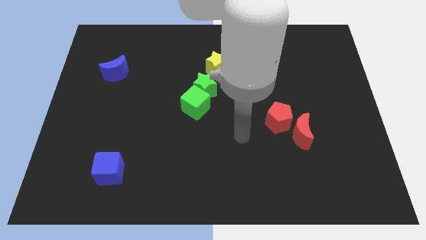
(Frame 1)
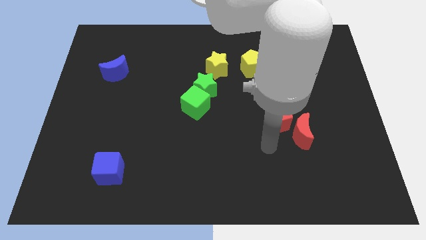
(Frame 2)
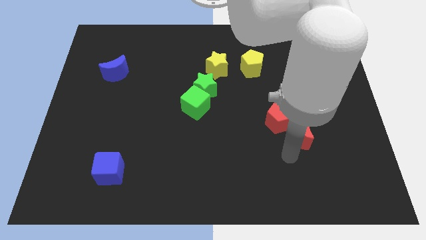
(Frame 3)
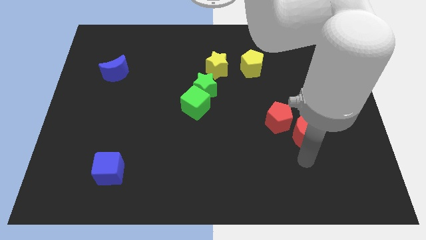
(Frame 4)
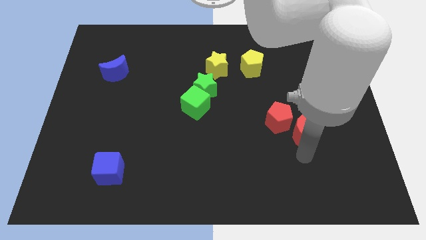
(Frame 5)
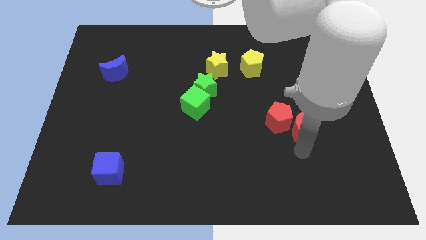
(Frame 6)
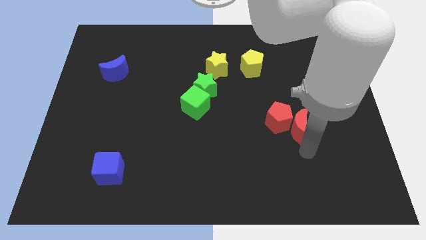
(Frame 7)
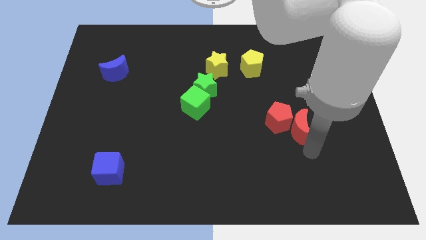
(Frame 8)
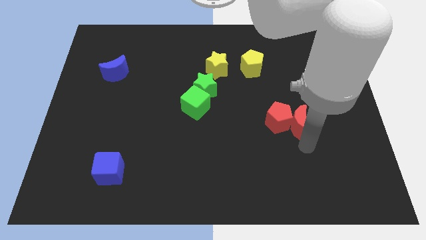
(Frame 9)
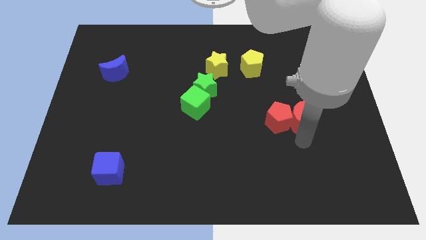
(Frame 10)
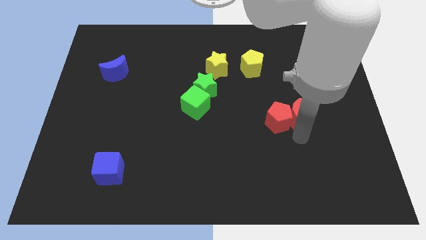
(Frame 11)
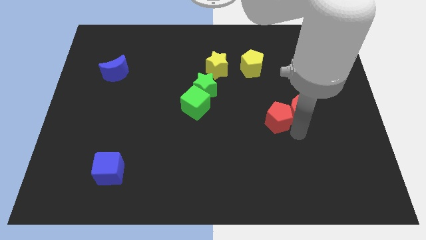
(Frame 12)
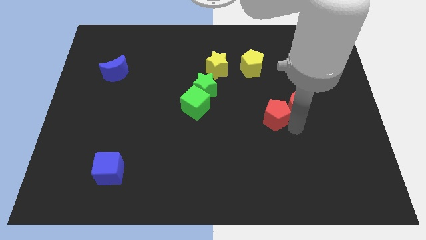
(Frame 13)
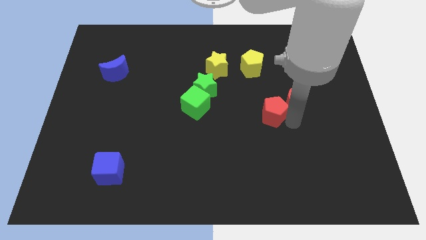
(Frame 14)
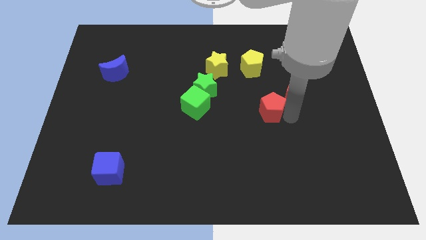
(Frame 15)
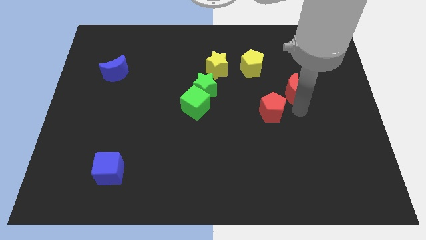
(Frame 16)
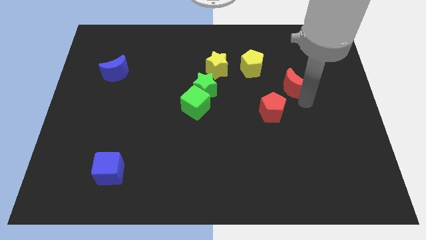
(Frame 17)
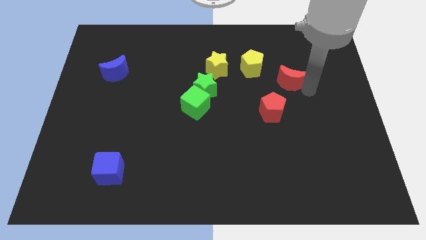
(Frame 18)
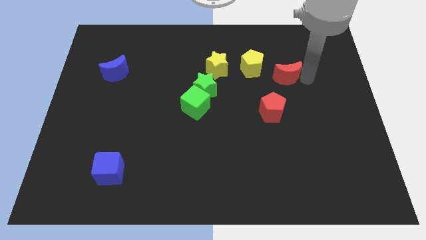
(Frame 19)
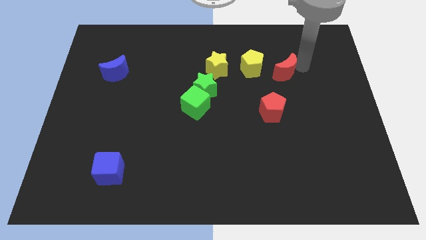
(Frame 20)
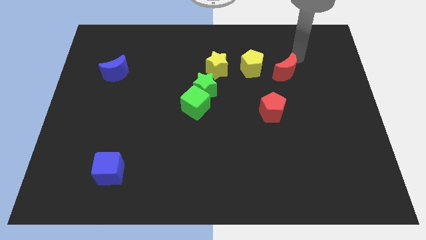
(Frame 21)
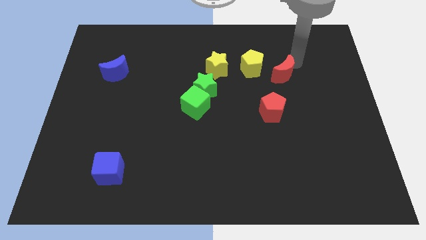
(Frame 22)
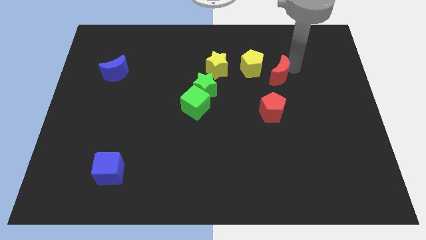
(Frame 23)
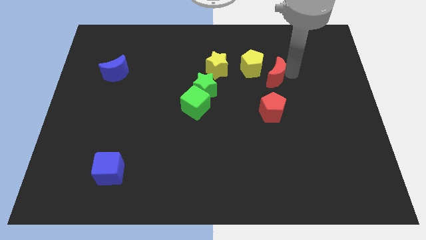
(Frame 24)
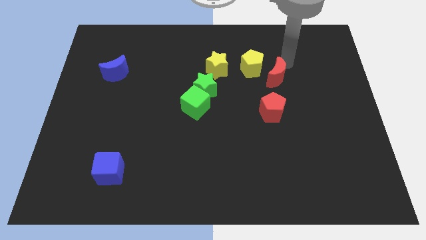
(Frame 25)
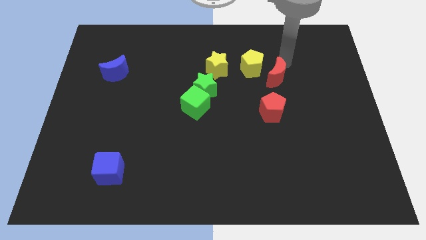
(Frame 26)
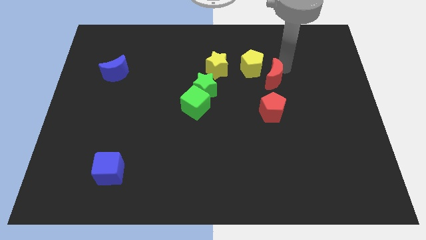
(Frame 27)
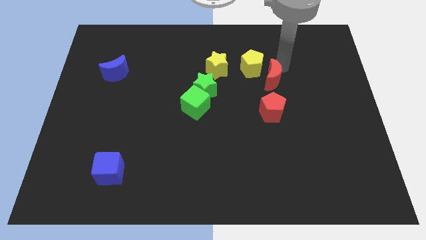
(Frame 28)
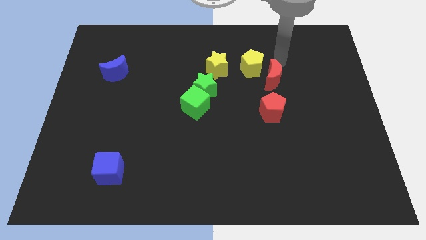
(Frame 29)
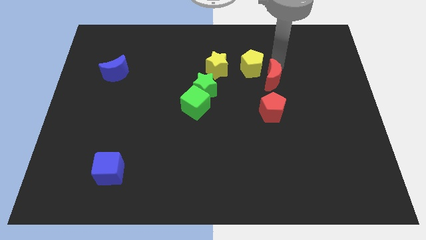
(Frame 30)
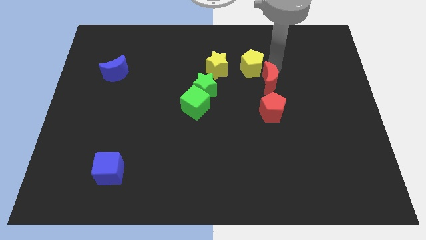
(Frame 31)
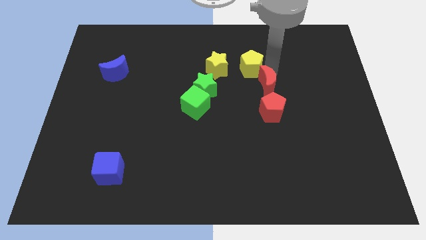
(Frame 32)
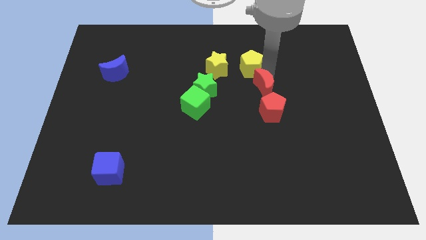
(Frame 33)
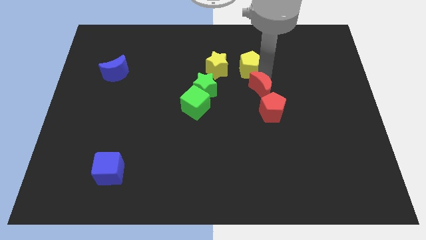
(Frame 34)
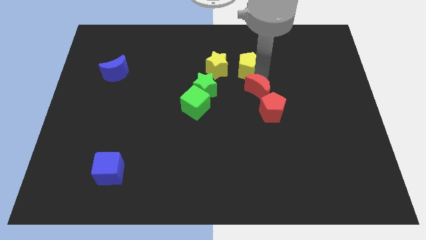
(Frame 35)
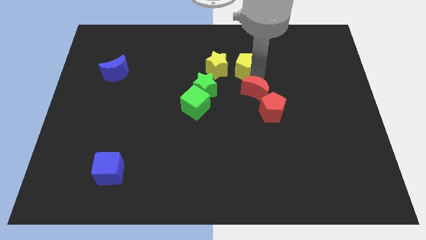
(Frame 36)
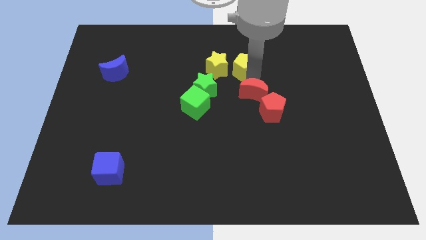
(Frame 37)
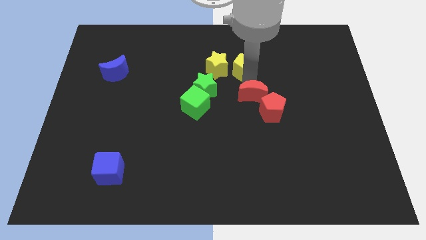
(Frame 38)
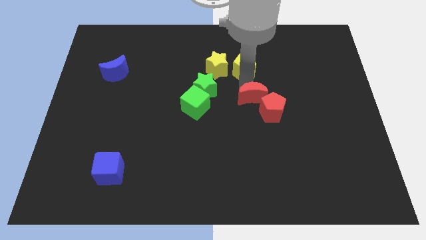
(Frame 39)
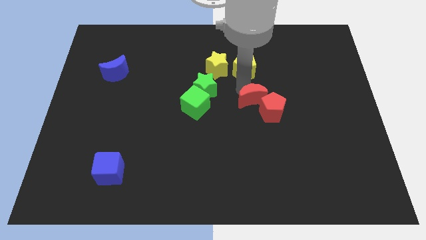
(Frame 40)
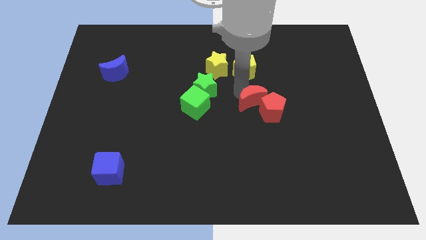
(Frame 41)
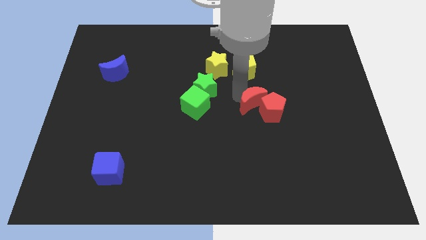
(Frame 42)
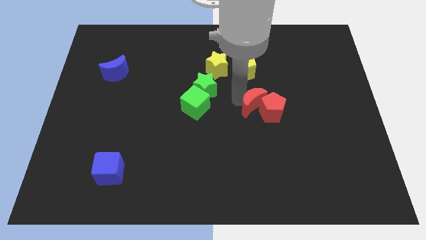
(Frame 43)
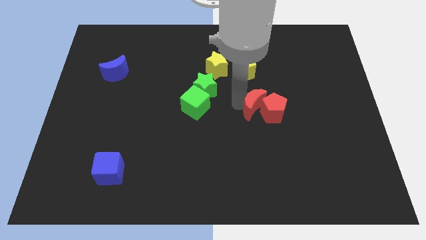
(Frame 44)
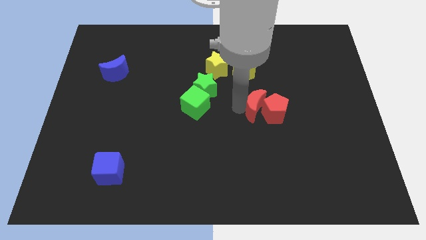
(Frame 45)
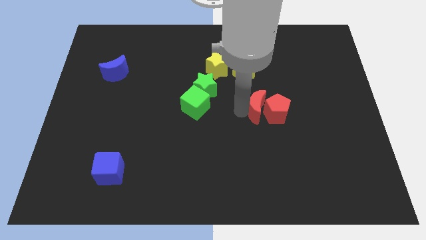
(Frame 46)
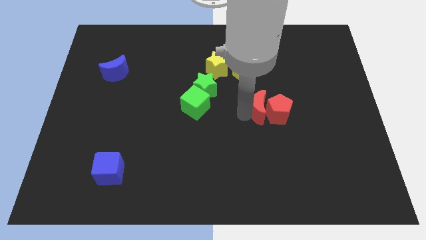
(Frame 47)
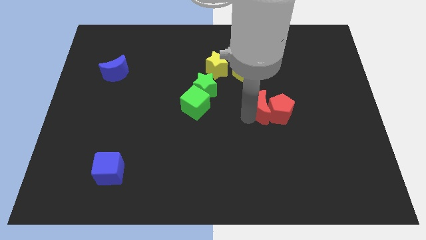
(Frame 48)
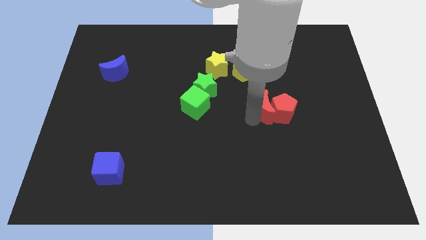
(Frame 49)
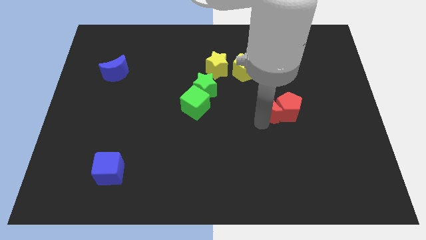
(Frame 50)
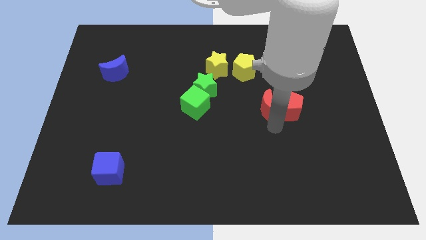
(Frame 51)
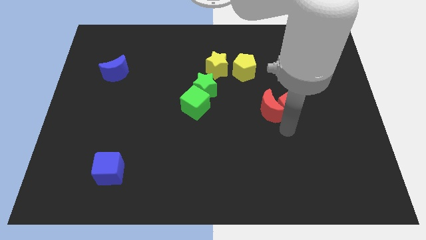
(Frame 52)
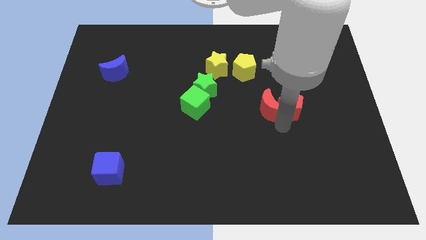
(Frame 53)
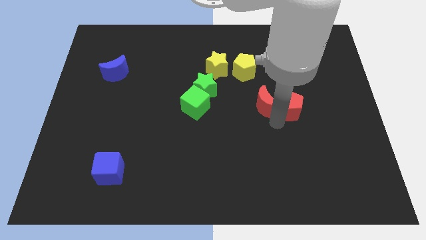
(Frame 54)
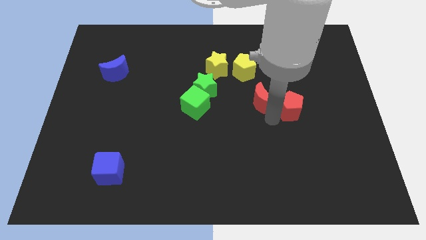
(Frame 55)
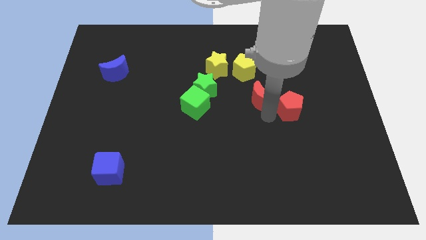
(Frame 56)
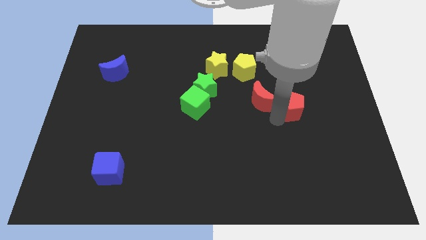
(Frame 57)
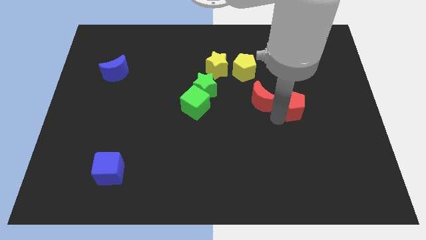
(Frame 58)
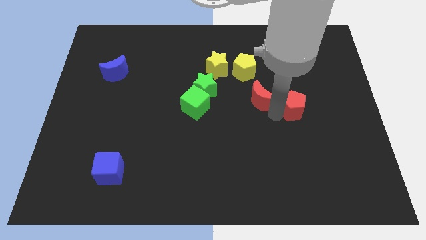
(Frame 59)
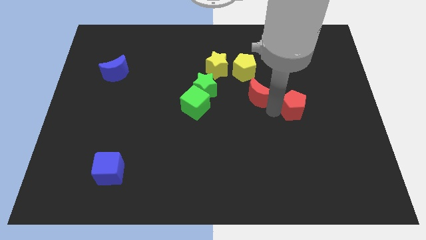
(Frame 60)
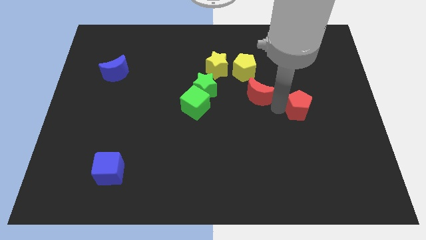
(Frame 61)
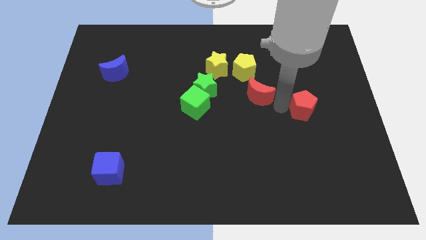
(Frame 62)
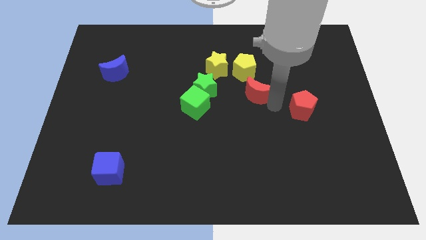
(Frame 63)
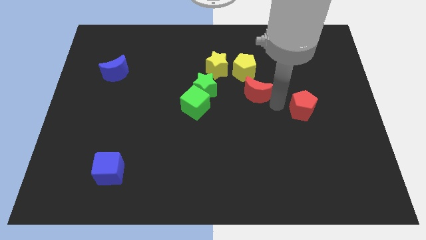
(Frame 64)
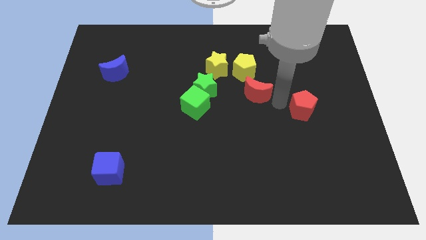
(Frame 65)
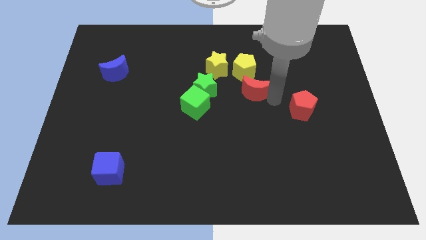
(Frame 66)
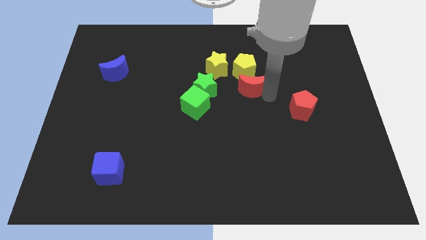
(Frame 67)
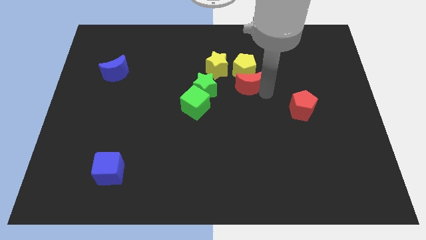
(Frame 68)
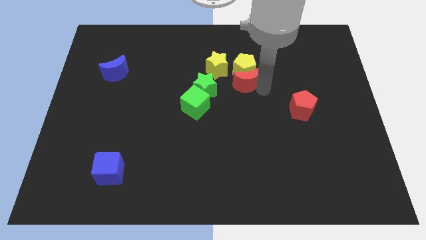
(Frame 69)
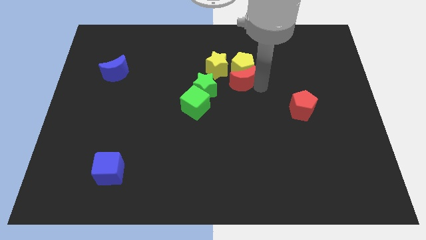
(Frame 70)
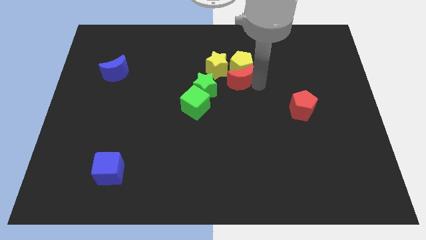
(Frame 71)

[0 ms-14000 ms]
push the red moon to the top right side of the green star
